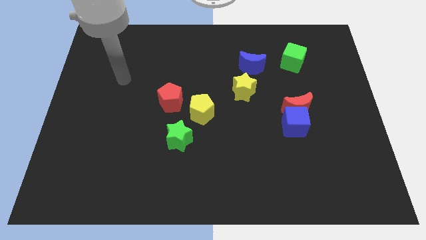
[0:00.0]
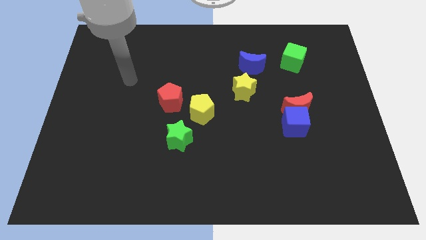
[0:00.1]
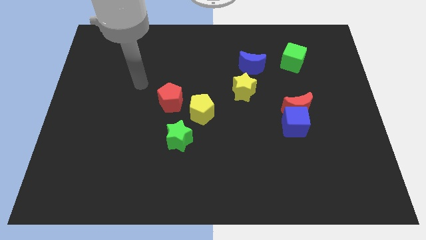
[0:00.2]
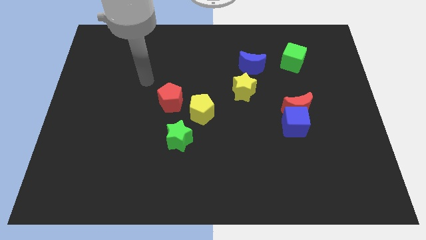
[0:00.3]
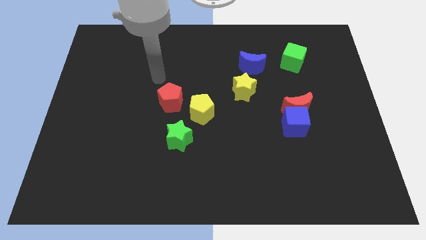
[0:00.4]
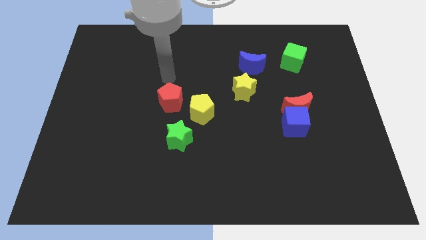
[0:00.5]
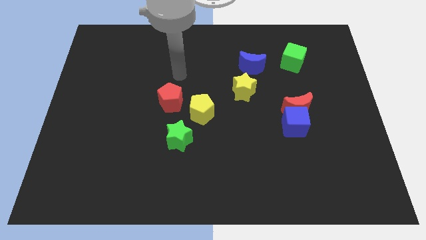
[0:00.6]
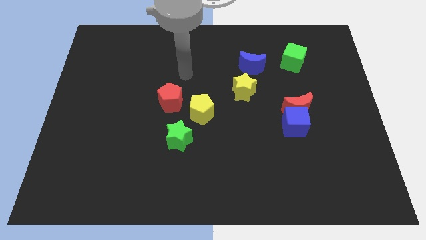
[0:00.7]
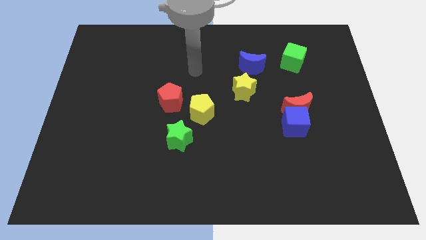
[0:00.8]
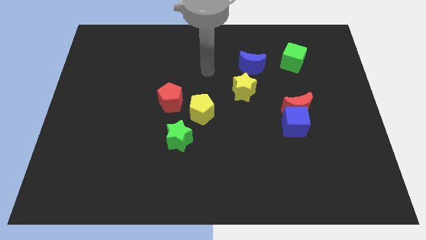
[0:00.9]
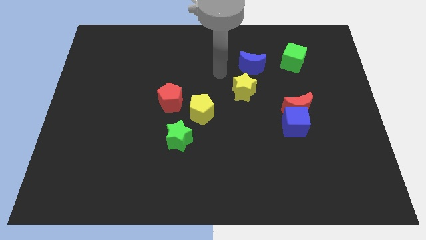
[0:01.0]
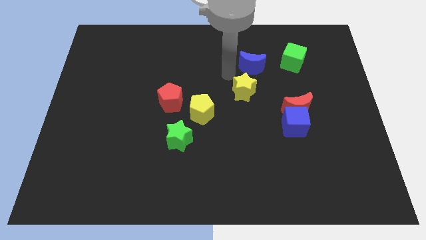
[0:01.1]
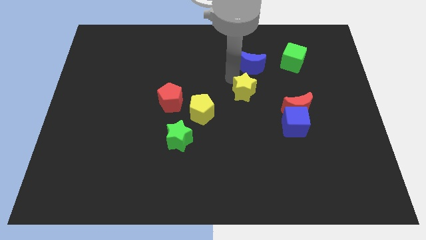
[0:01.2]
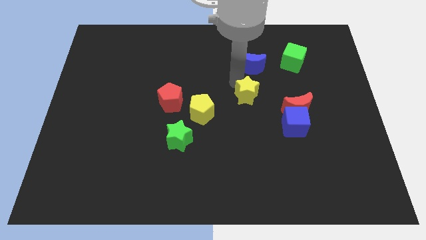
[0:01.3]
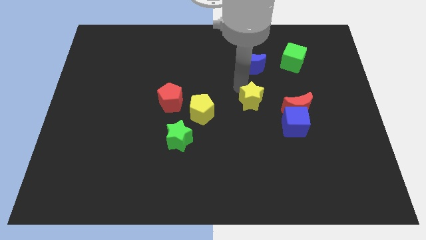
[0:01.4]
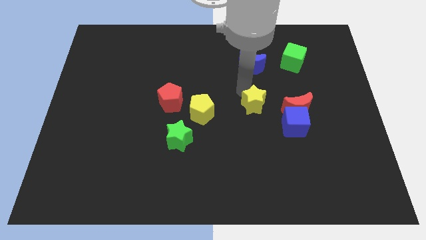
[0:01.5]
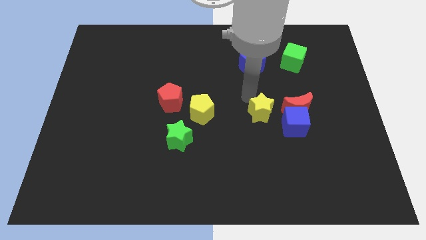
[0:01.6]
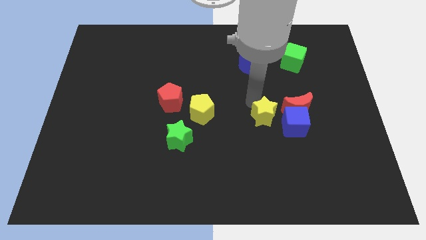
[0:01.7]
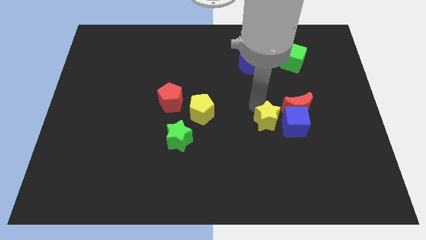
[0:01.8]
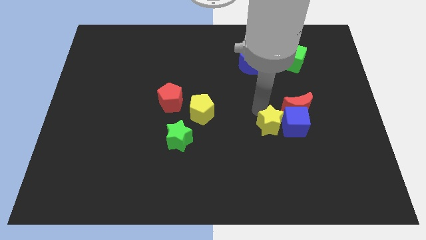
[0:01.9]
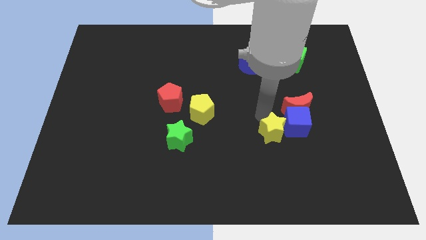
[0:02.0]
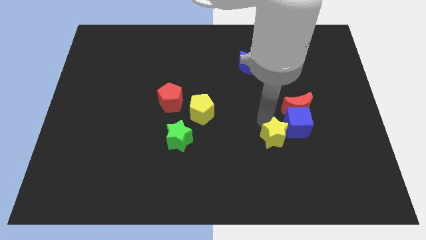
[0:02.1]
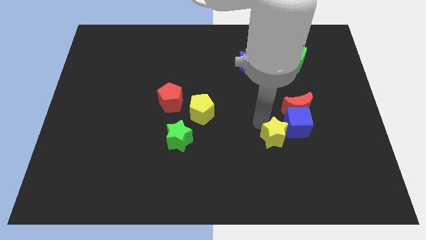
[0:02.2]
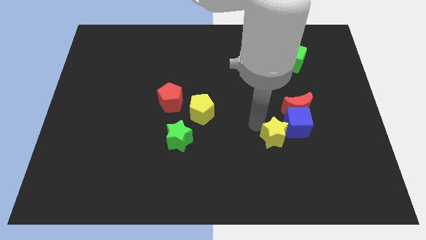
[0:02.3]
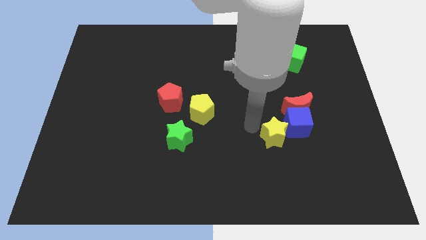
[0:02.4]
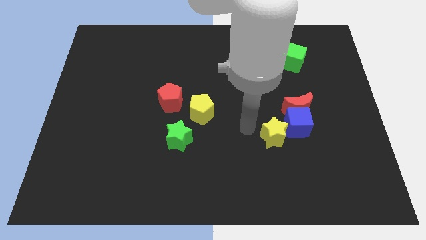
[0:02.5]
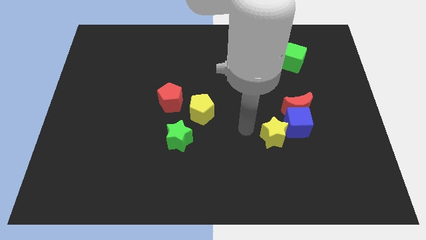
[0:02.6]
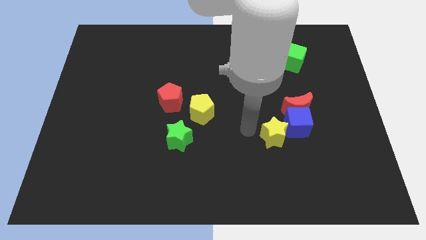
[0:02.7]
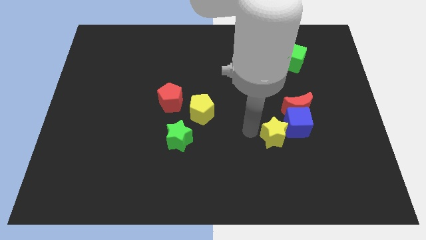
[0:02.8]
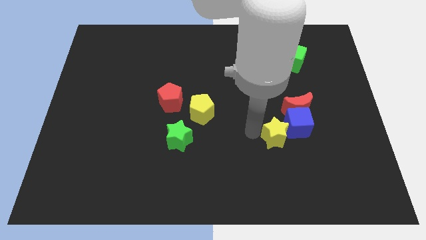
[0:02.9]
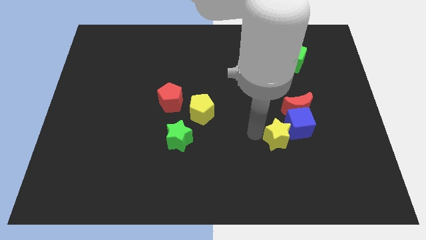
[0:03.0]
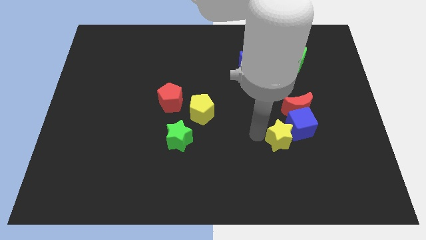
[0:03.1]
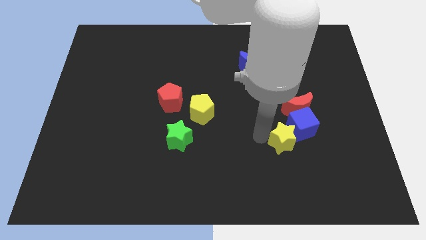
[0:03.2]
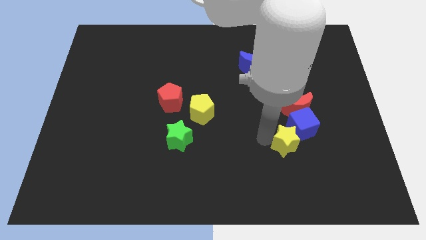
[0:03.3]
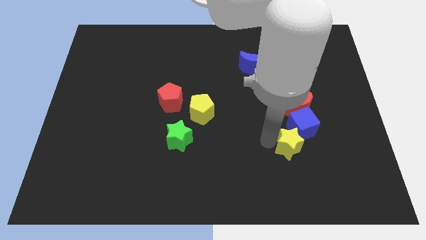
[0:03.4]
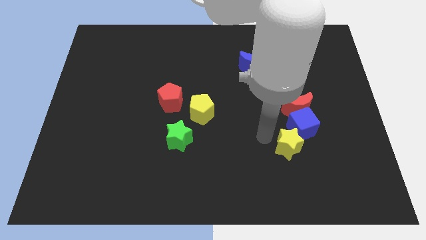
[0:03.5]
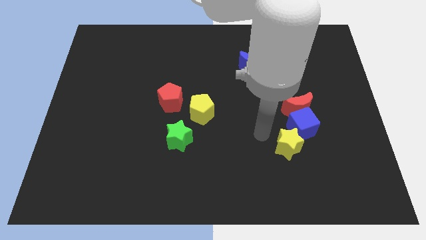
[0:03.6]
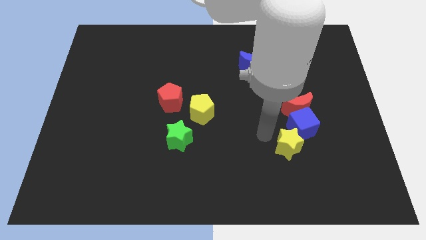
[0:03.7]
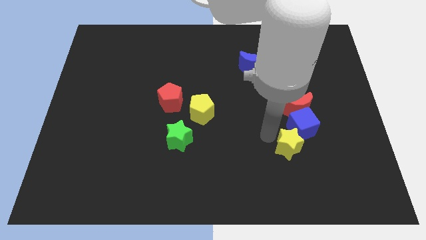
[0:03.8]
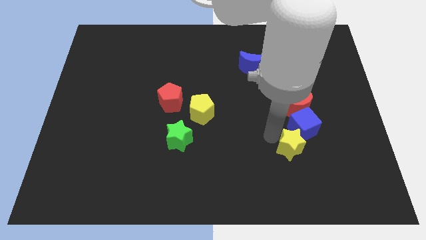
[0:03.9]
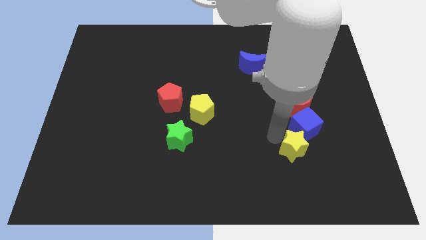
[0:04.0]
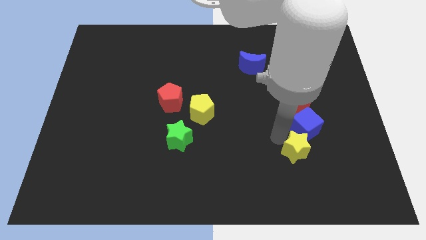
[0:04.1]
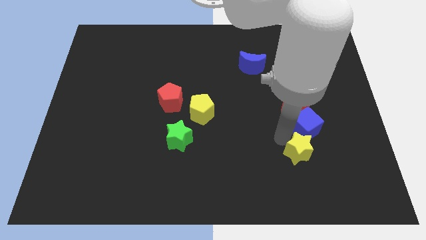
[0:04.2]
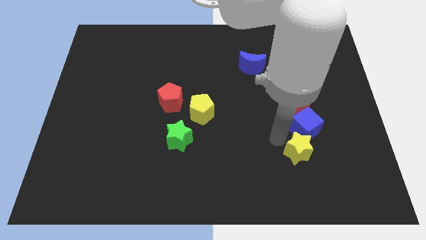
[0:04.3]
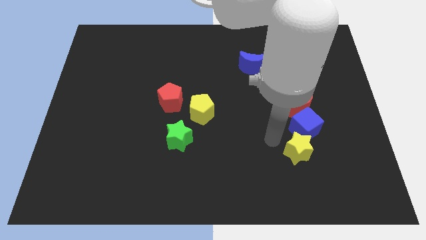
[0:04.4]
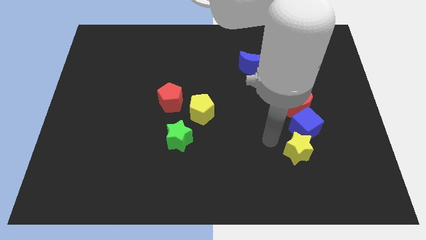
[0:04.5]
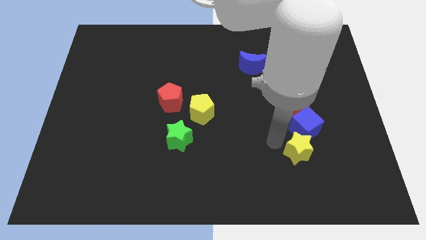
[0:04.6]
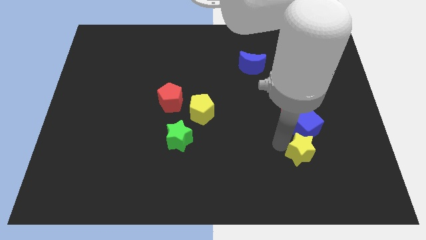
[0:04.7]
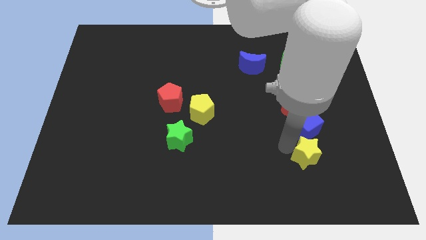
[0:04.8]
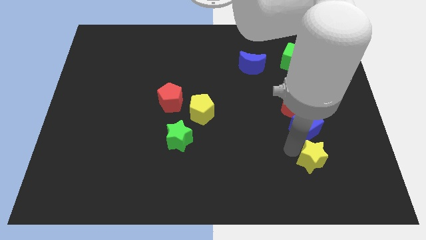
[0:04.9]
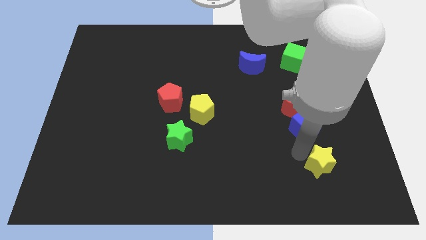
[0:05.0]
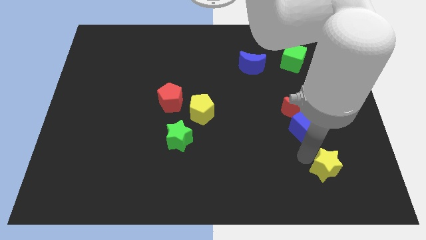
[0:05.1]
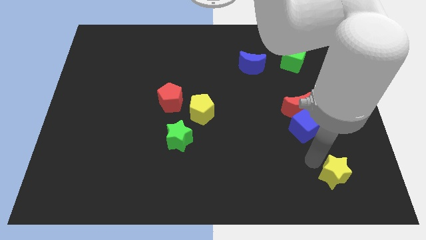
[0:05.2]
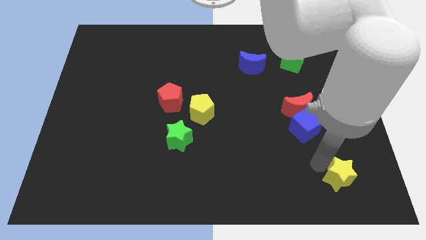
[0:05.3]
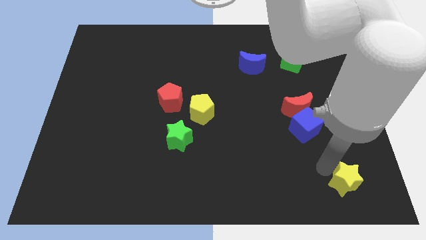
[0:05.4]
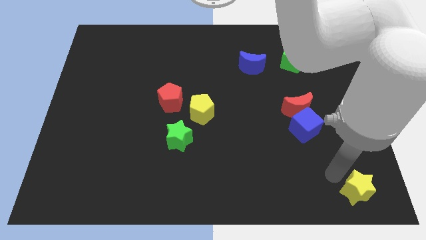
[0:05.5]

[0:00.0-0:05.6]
put the yellow star to the bottom right of the board

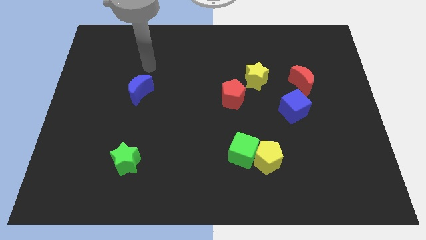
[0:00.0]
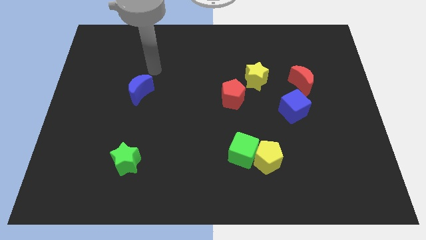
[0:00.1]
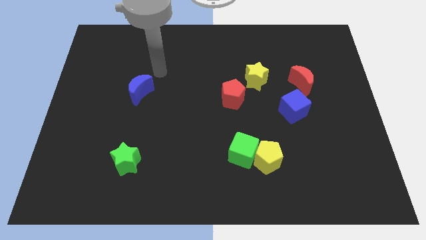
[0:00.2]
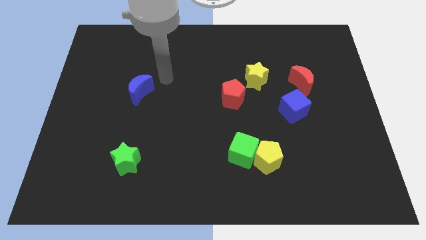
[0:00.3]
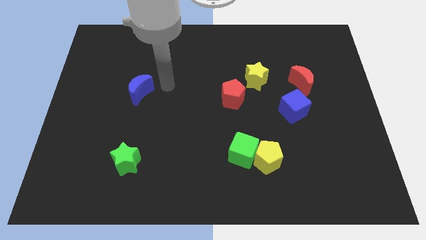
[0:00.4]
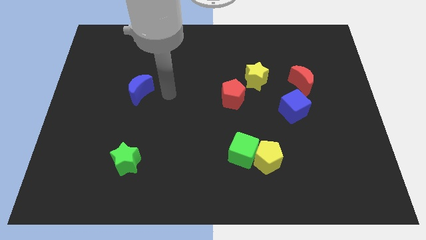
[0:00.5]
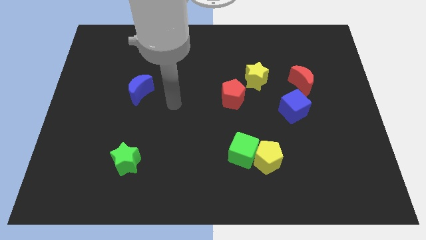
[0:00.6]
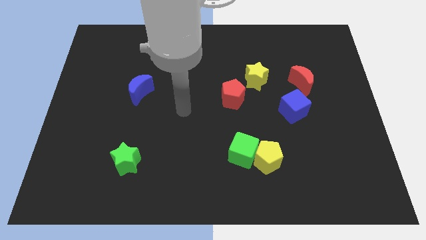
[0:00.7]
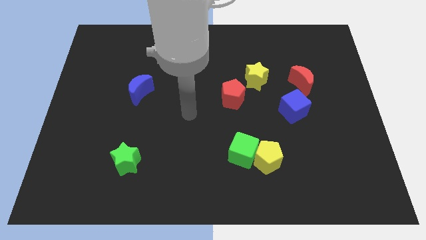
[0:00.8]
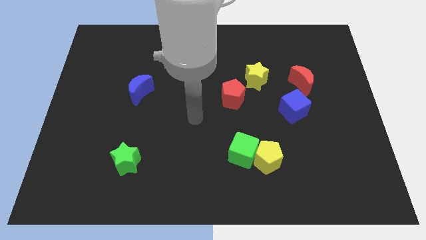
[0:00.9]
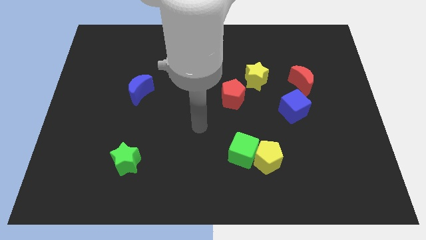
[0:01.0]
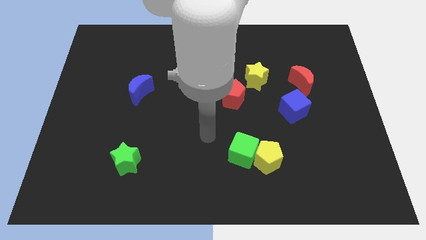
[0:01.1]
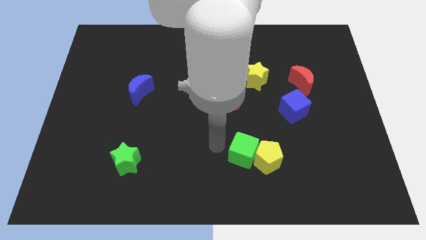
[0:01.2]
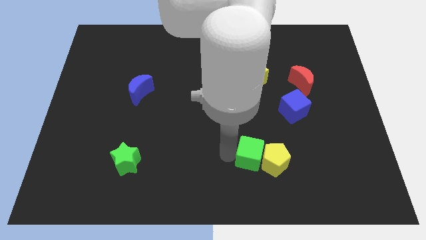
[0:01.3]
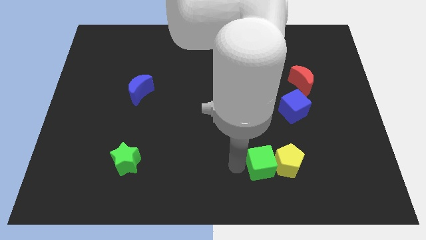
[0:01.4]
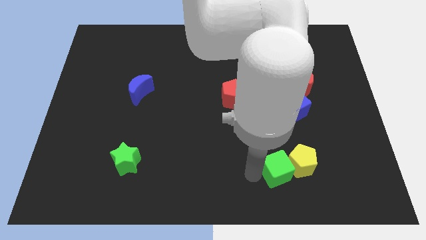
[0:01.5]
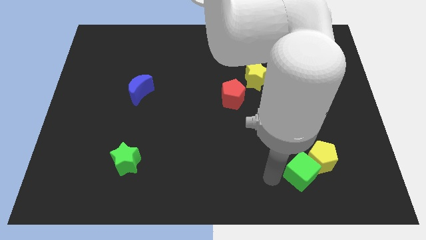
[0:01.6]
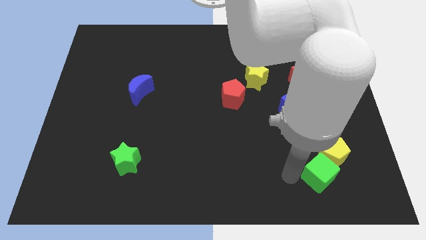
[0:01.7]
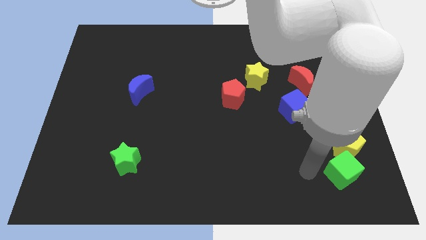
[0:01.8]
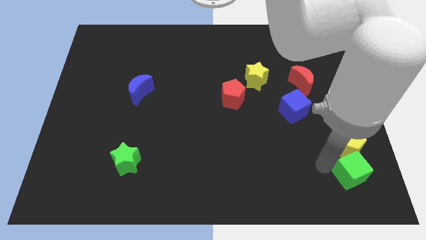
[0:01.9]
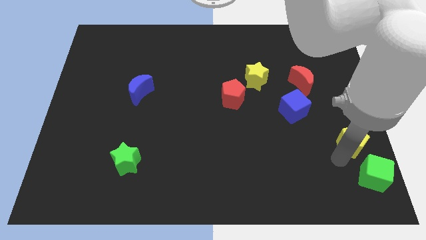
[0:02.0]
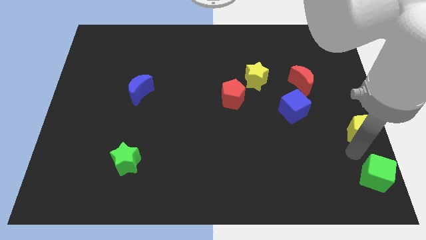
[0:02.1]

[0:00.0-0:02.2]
slide the yellow pentagon to the right side
